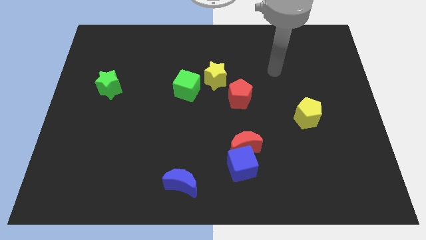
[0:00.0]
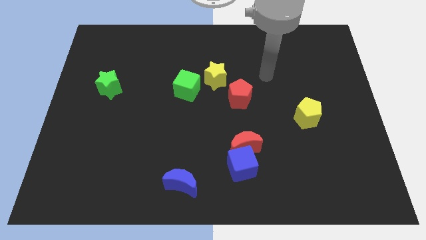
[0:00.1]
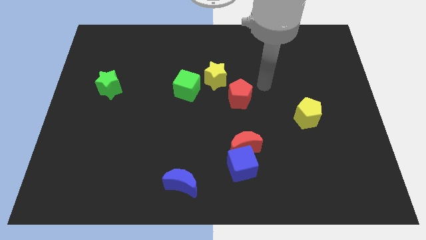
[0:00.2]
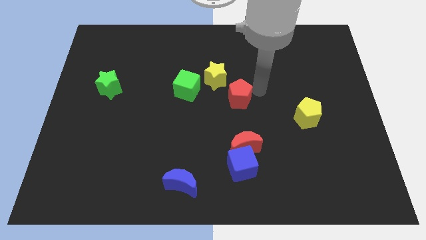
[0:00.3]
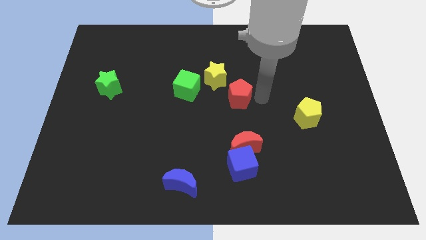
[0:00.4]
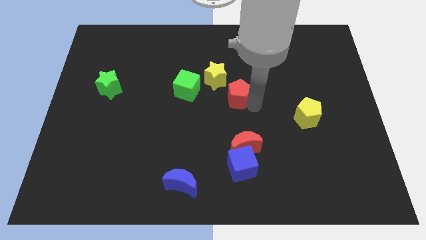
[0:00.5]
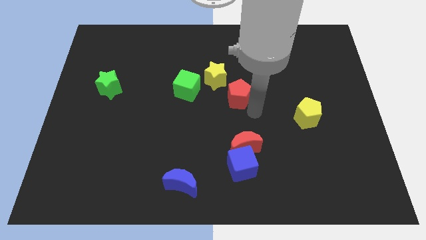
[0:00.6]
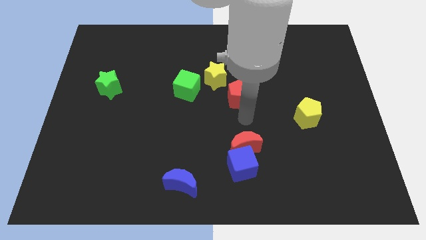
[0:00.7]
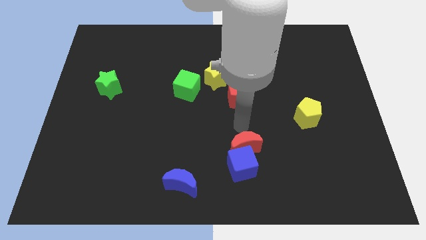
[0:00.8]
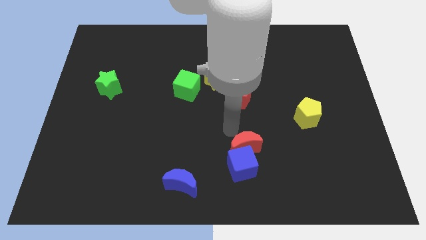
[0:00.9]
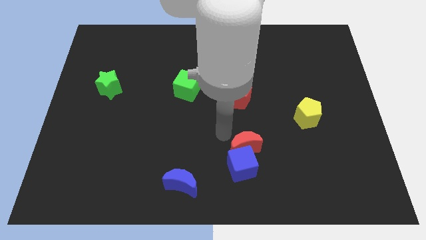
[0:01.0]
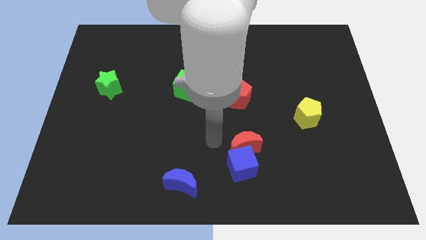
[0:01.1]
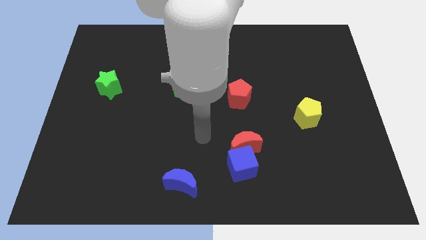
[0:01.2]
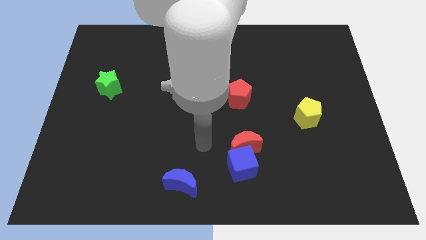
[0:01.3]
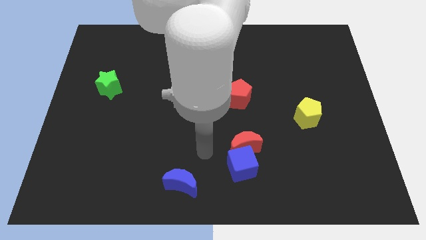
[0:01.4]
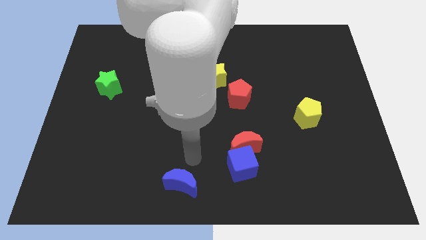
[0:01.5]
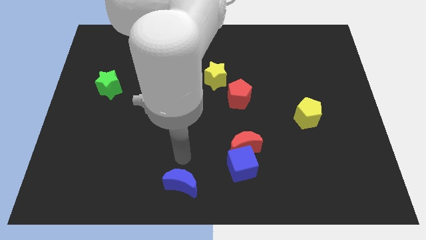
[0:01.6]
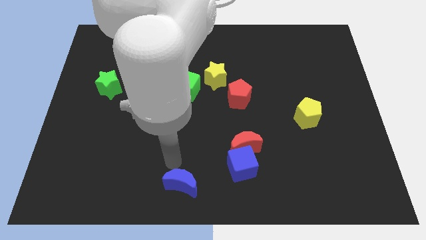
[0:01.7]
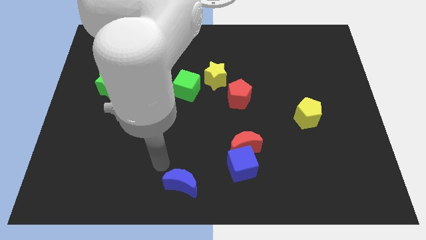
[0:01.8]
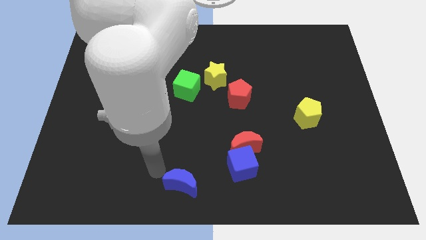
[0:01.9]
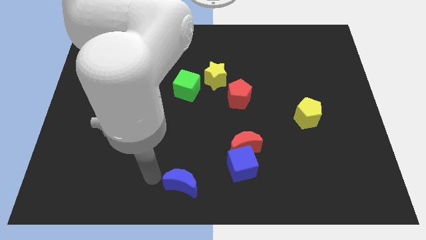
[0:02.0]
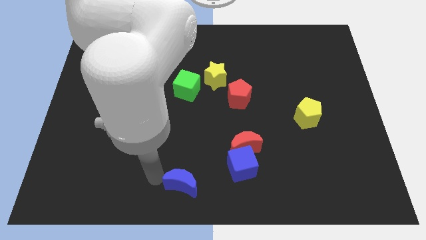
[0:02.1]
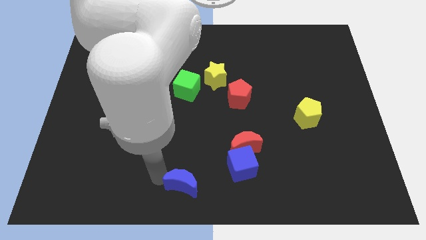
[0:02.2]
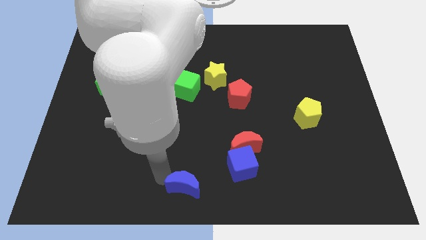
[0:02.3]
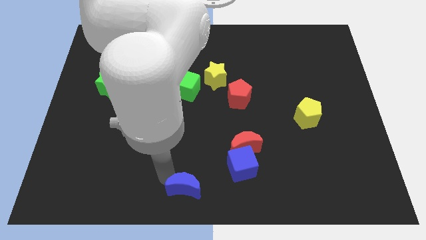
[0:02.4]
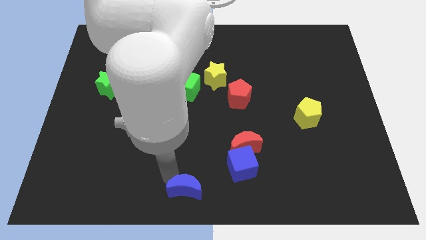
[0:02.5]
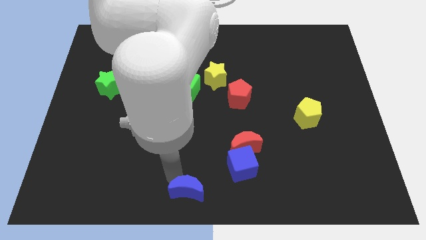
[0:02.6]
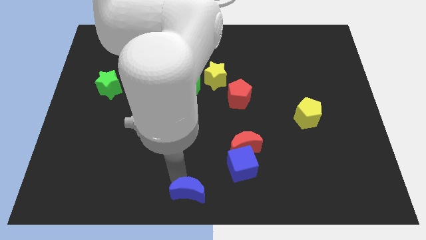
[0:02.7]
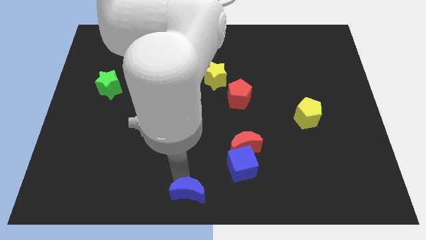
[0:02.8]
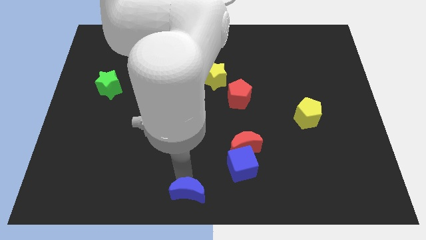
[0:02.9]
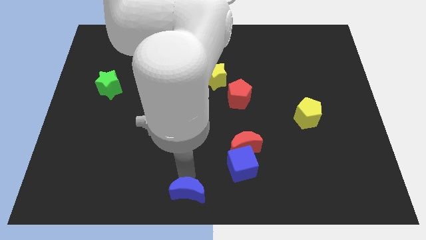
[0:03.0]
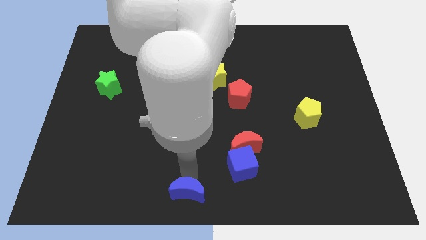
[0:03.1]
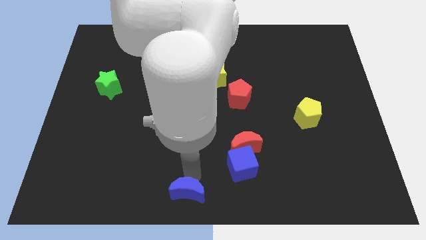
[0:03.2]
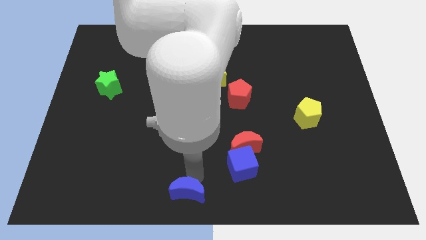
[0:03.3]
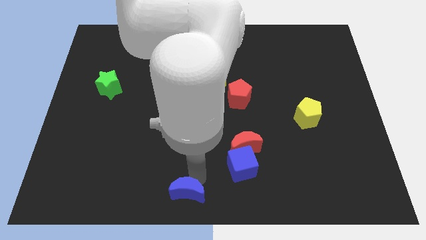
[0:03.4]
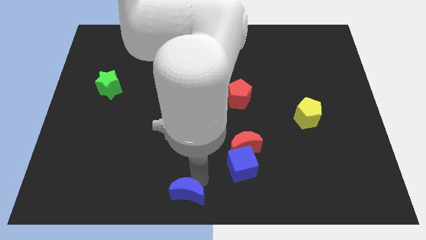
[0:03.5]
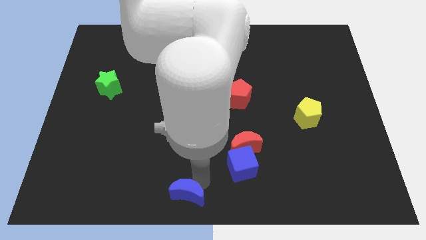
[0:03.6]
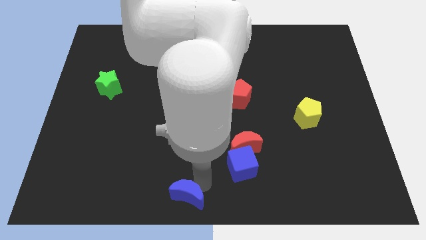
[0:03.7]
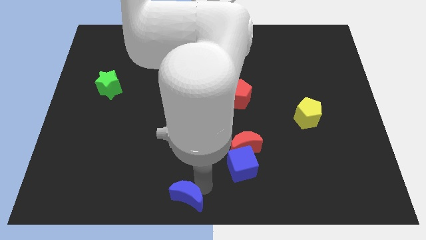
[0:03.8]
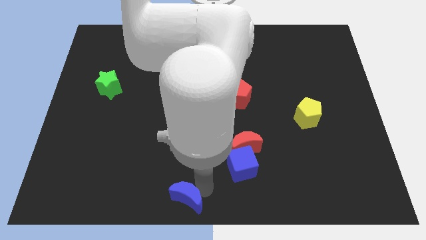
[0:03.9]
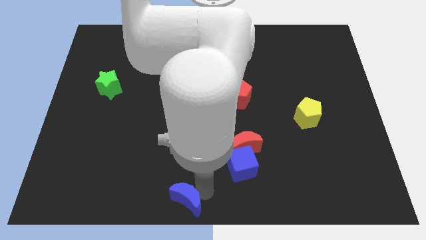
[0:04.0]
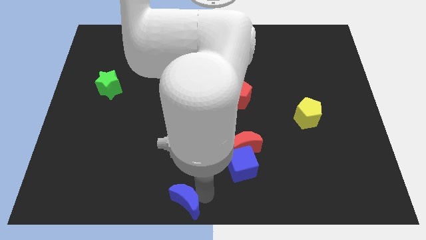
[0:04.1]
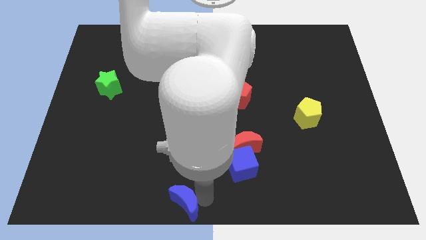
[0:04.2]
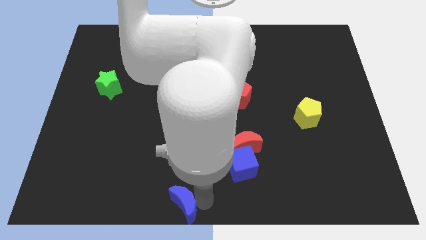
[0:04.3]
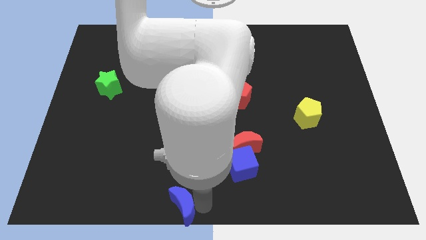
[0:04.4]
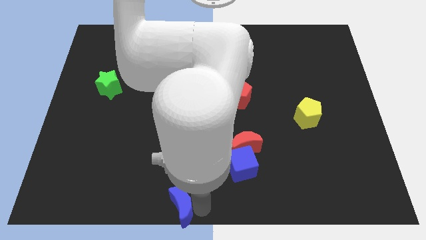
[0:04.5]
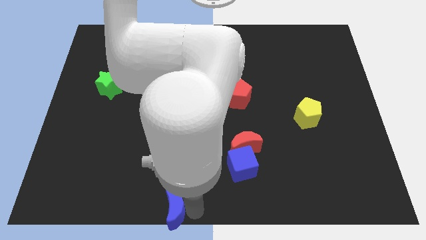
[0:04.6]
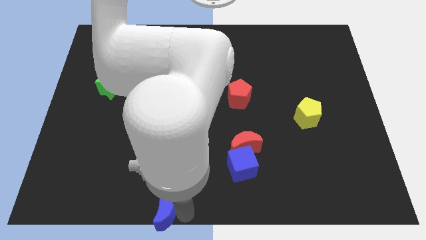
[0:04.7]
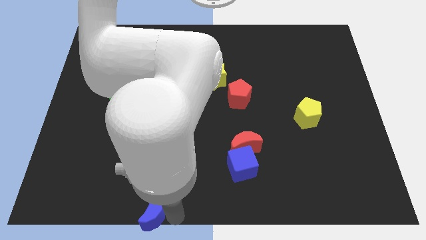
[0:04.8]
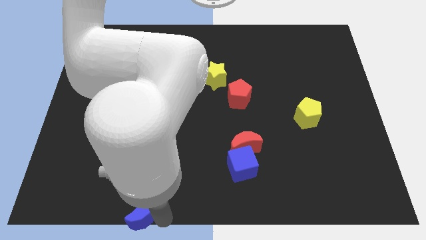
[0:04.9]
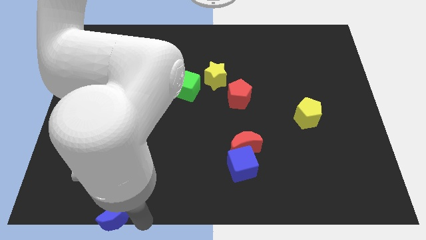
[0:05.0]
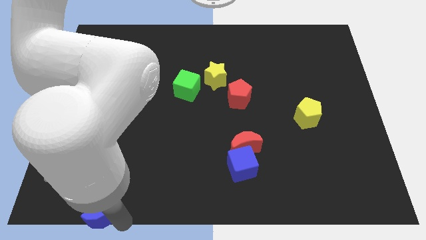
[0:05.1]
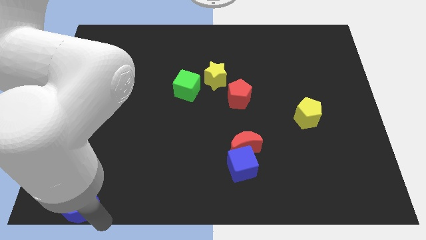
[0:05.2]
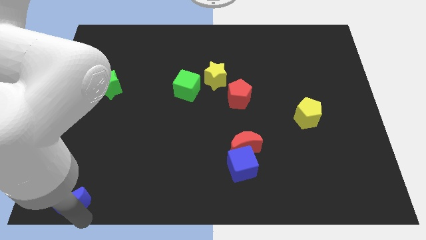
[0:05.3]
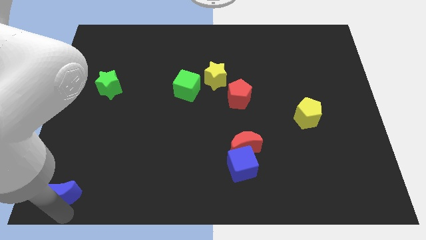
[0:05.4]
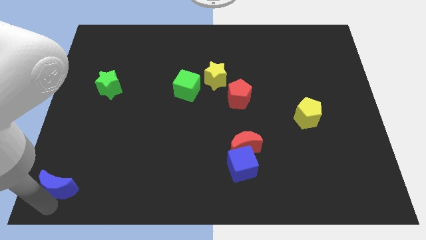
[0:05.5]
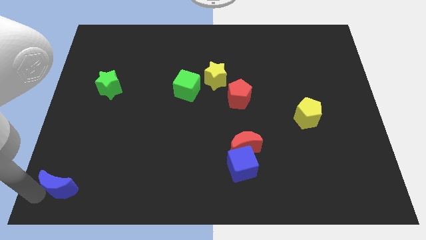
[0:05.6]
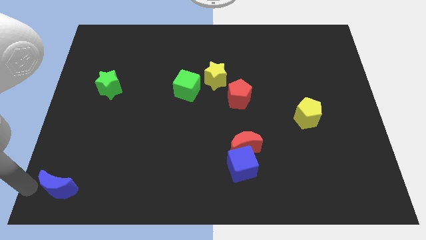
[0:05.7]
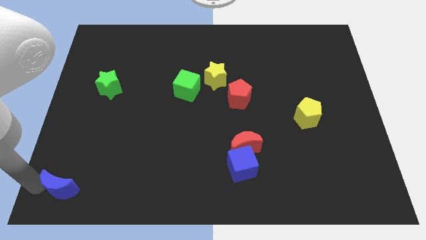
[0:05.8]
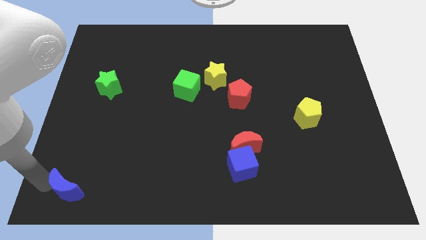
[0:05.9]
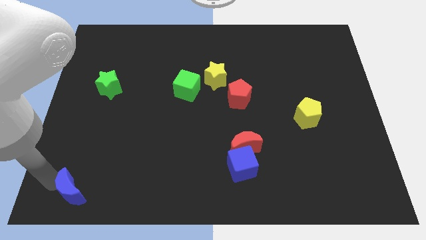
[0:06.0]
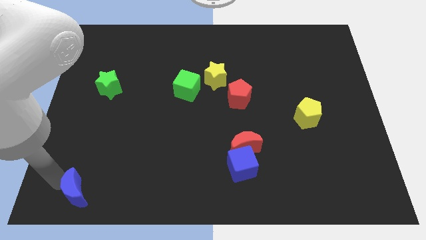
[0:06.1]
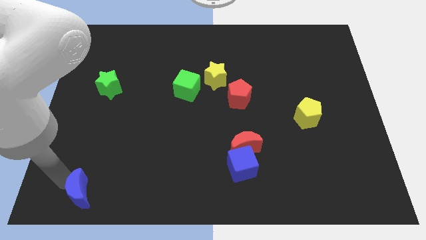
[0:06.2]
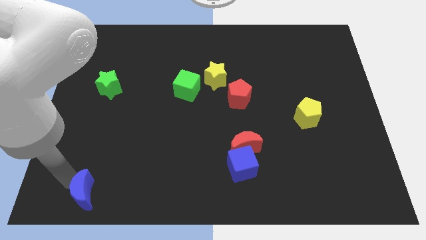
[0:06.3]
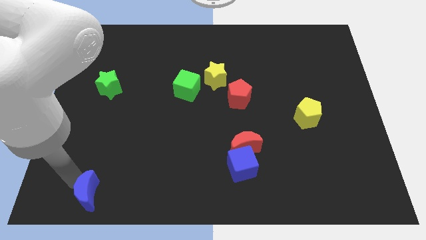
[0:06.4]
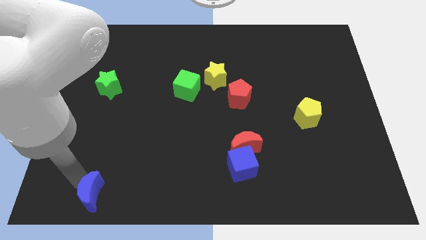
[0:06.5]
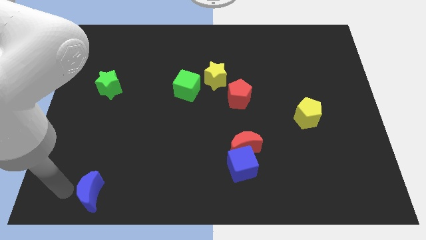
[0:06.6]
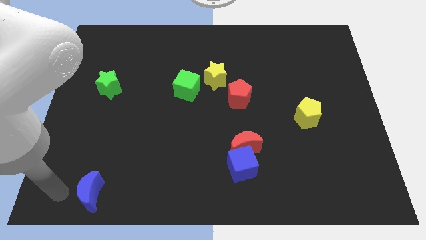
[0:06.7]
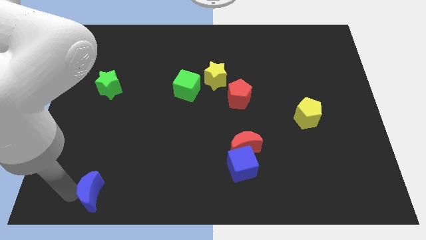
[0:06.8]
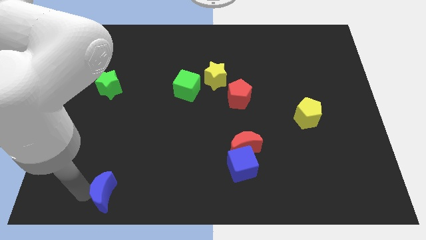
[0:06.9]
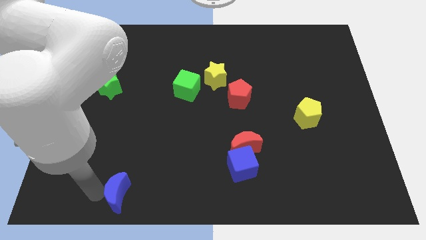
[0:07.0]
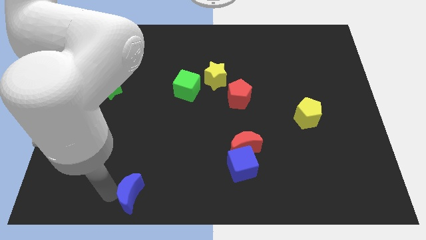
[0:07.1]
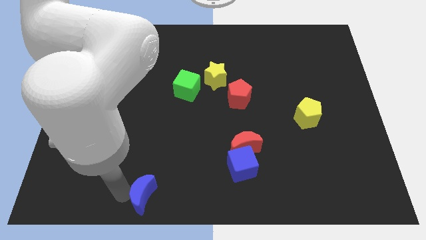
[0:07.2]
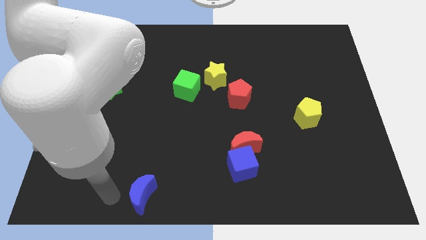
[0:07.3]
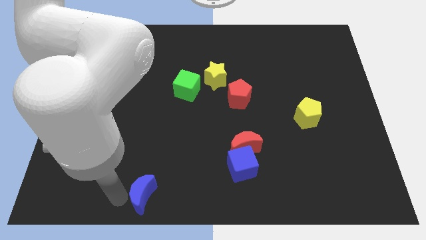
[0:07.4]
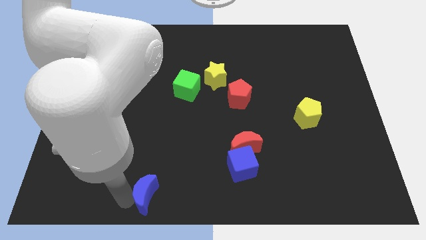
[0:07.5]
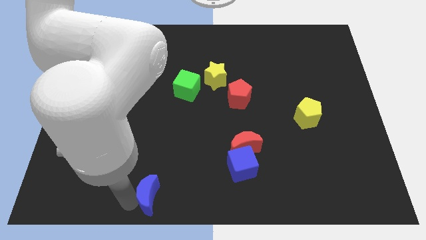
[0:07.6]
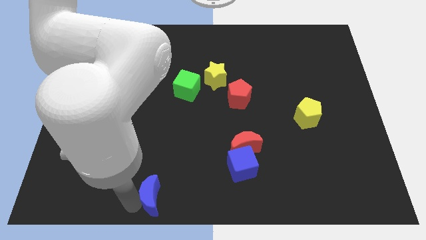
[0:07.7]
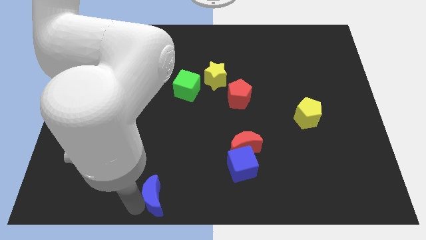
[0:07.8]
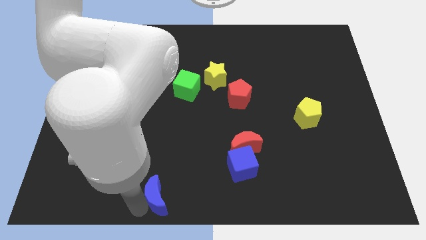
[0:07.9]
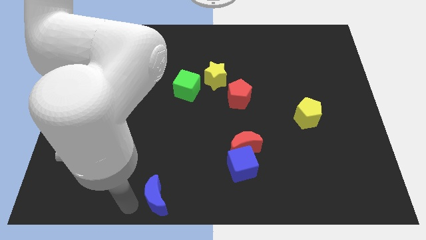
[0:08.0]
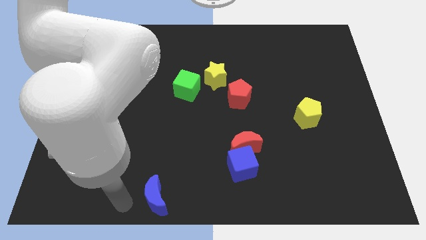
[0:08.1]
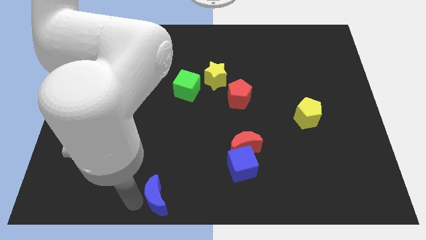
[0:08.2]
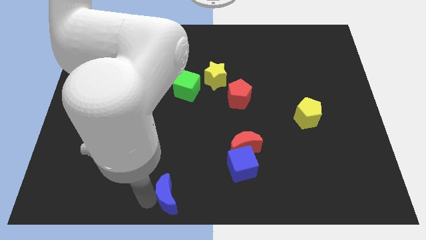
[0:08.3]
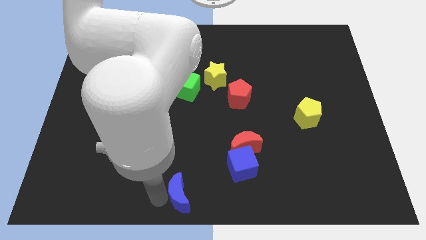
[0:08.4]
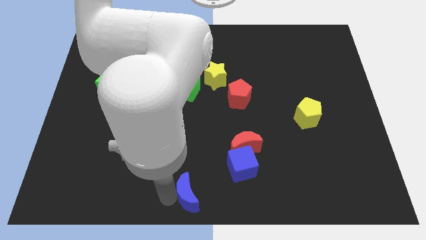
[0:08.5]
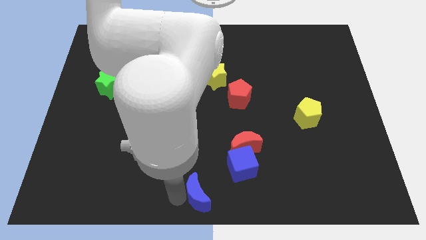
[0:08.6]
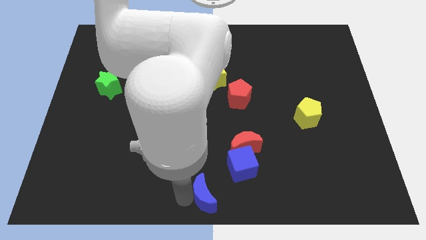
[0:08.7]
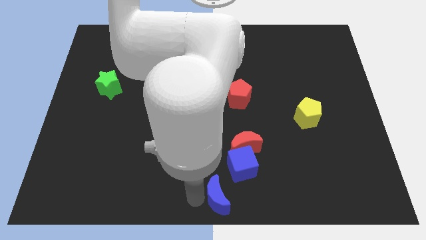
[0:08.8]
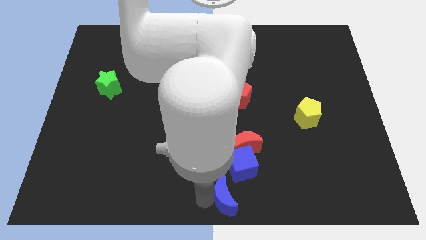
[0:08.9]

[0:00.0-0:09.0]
move the blue moon a bit to the right
